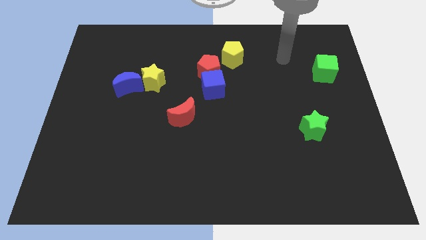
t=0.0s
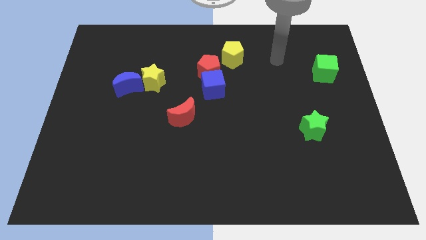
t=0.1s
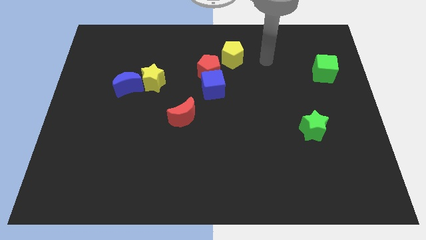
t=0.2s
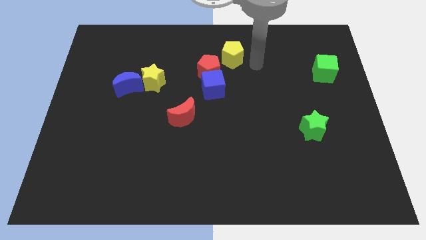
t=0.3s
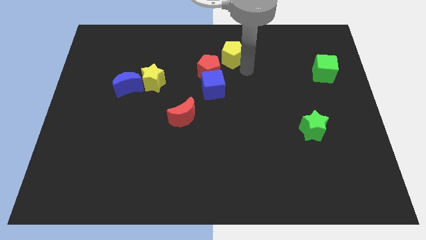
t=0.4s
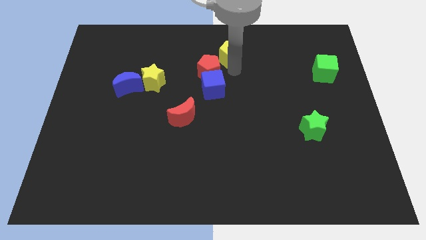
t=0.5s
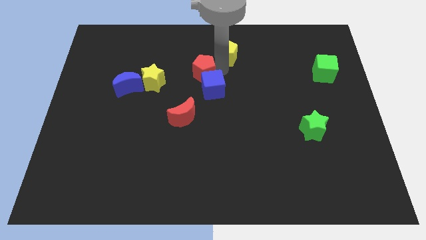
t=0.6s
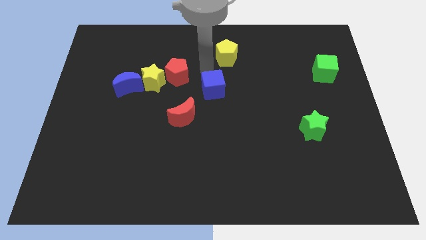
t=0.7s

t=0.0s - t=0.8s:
move the blue cube away from the red pentagon

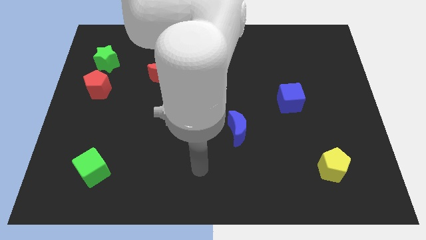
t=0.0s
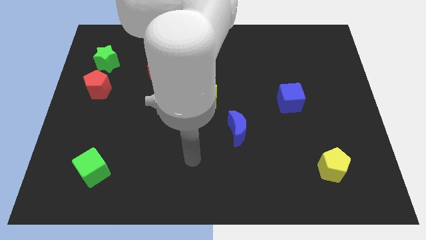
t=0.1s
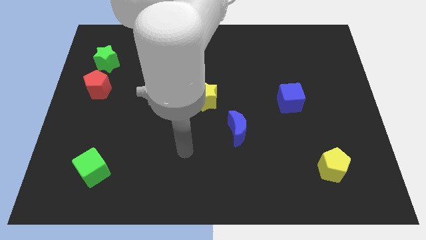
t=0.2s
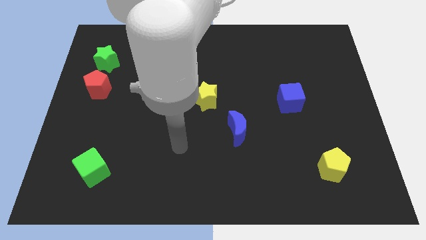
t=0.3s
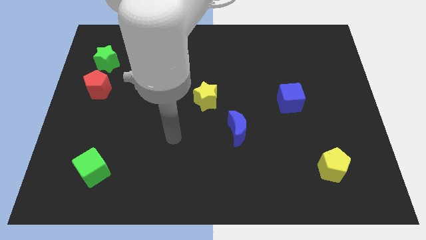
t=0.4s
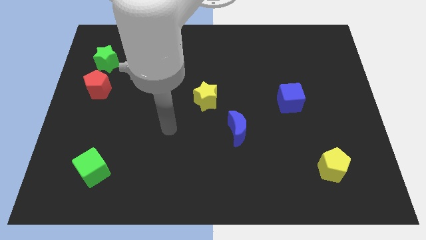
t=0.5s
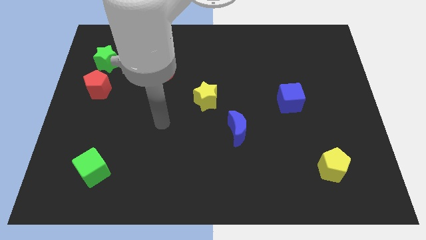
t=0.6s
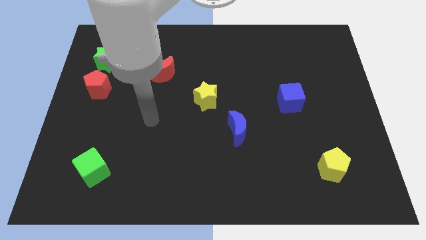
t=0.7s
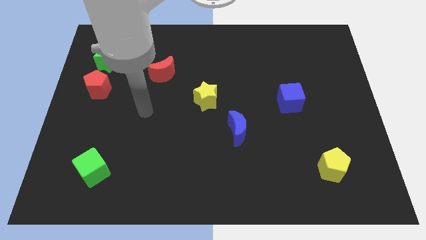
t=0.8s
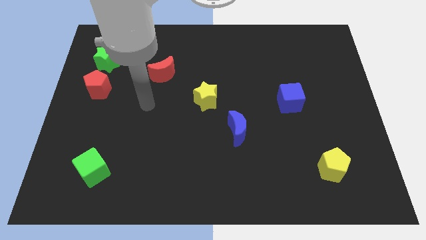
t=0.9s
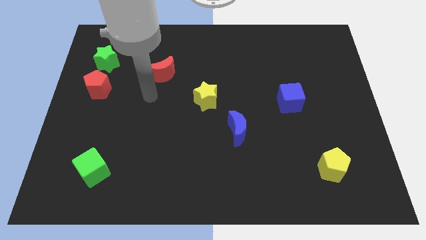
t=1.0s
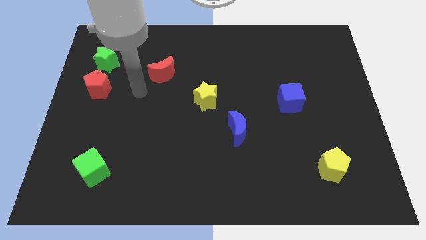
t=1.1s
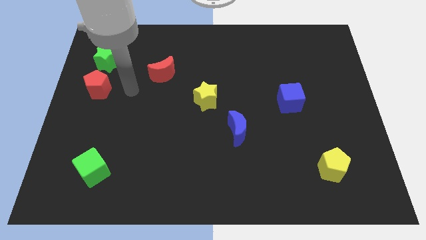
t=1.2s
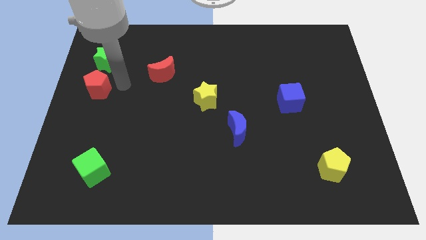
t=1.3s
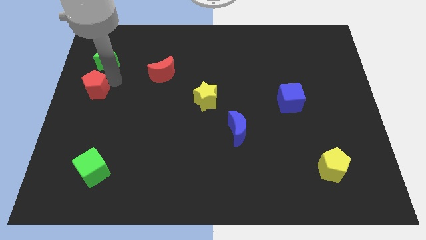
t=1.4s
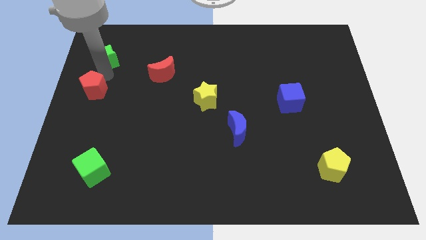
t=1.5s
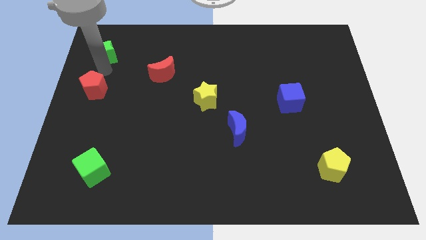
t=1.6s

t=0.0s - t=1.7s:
move the red pentagon away from the green star

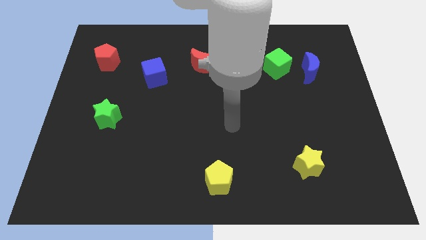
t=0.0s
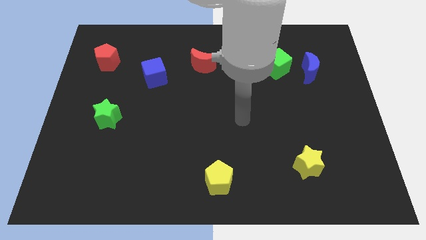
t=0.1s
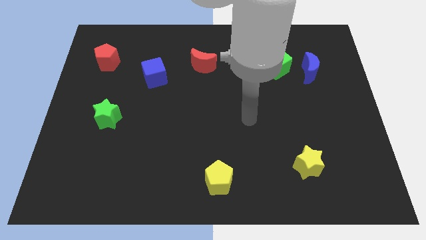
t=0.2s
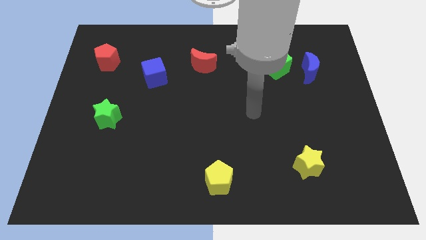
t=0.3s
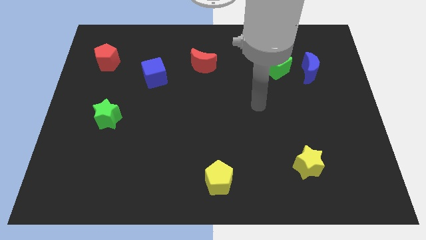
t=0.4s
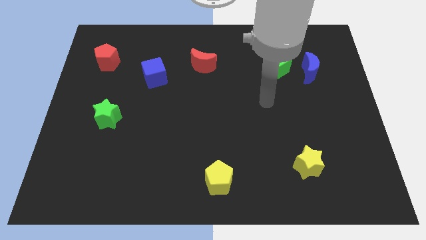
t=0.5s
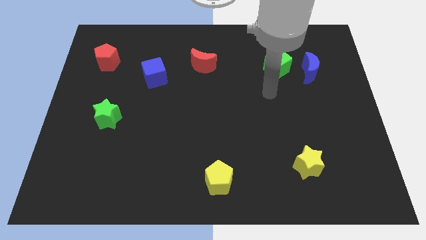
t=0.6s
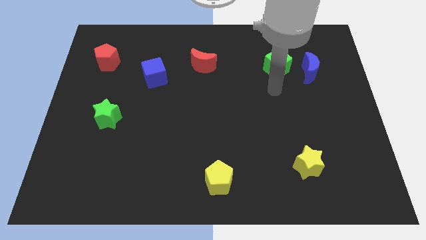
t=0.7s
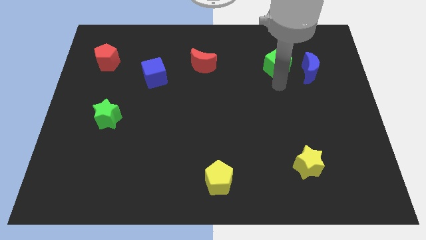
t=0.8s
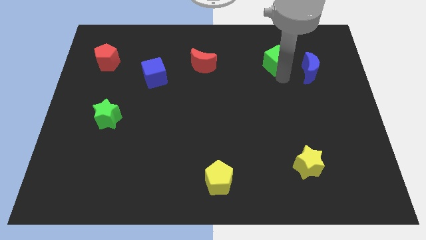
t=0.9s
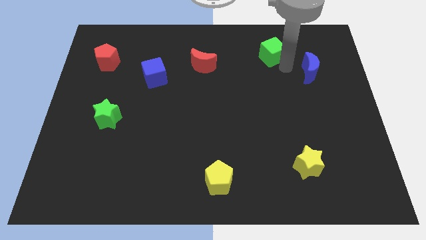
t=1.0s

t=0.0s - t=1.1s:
separate the blue moon from the green cube

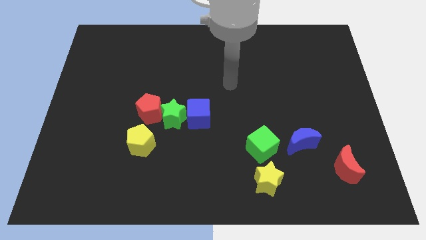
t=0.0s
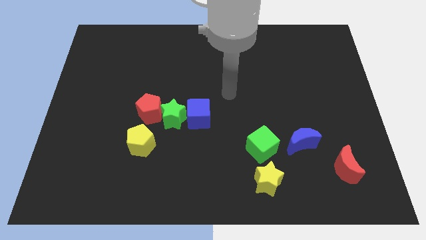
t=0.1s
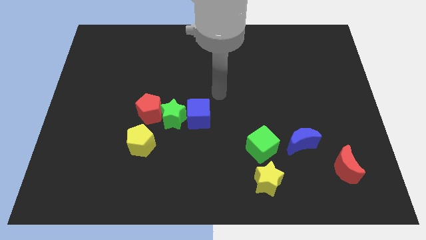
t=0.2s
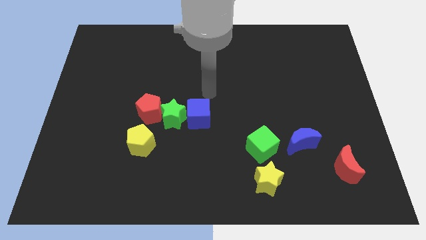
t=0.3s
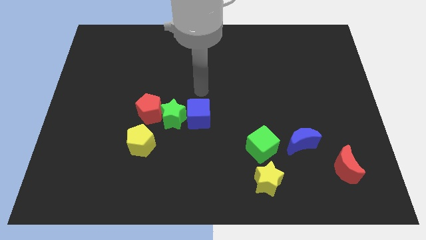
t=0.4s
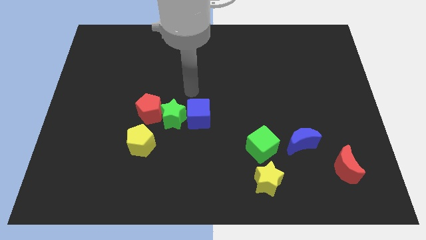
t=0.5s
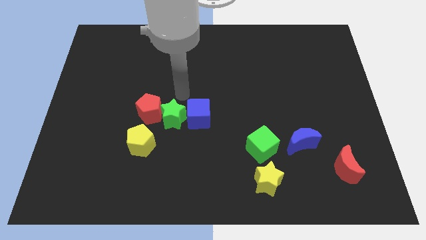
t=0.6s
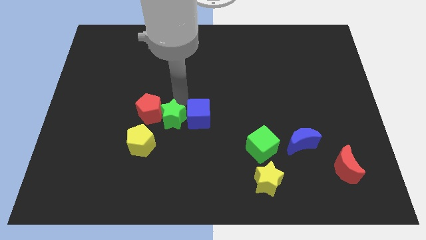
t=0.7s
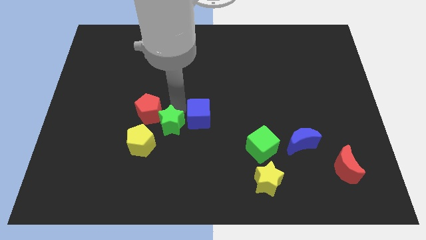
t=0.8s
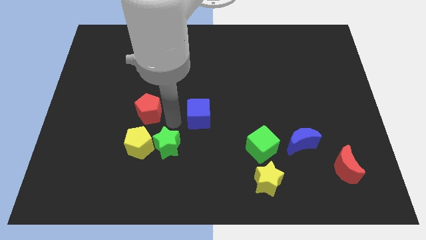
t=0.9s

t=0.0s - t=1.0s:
move the blue cube away from the green star

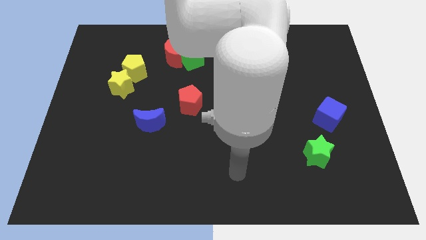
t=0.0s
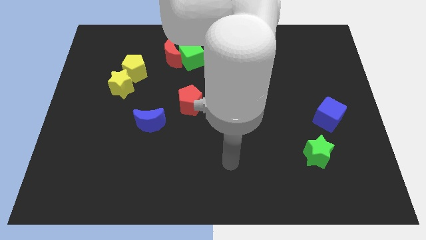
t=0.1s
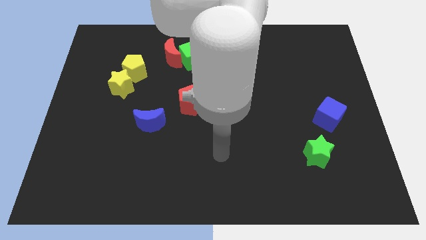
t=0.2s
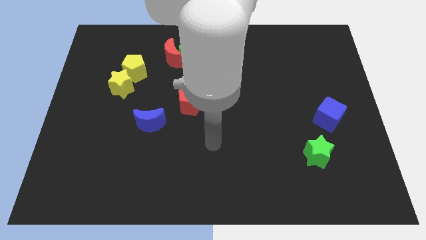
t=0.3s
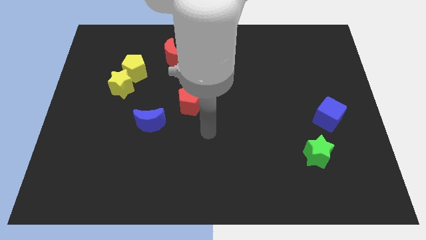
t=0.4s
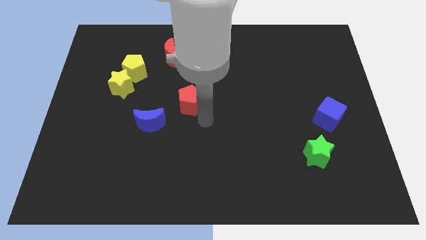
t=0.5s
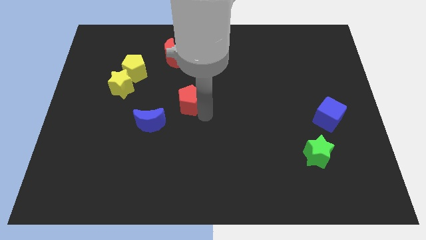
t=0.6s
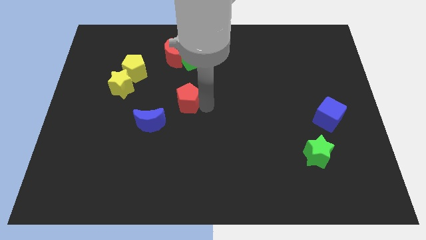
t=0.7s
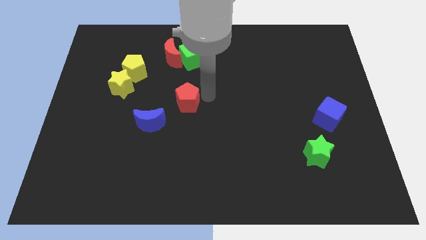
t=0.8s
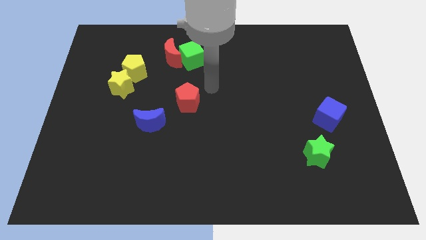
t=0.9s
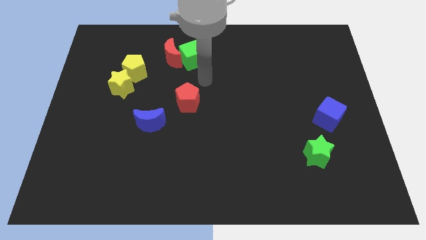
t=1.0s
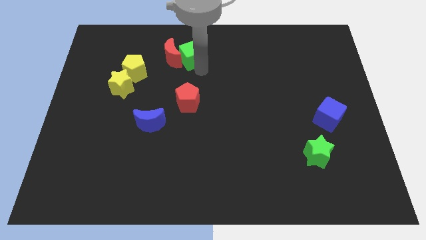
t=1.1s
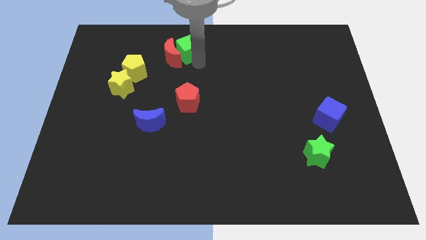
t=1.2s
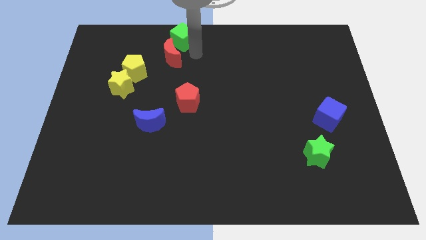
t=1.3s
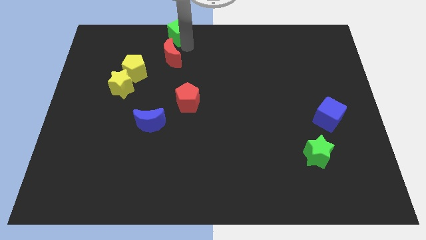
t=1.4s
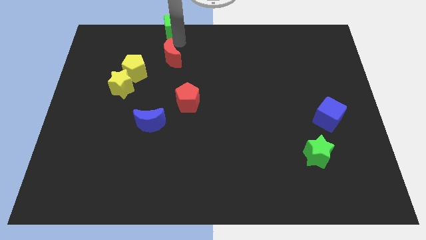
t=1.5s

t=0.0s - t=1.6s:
pull the red moon apart from the green cube

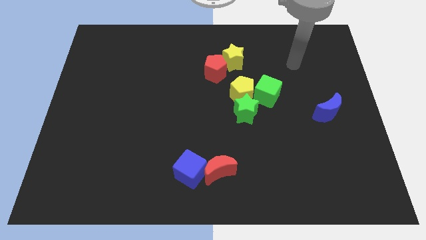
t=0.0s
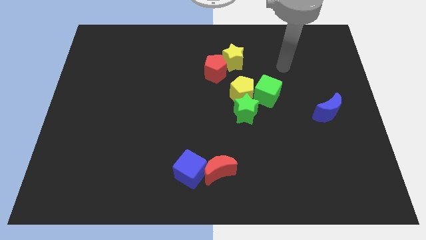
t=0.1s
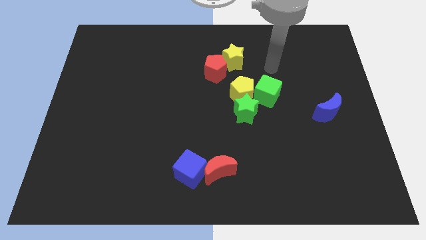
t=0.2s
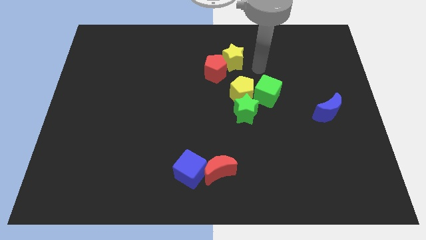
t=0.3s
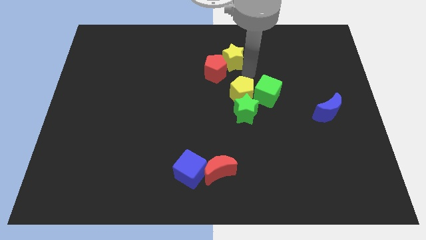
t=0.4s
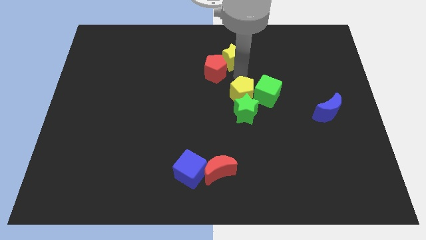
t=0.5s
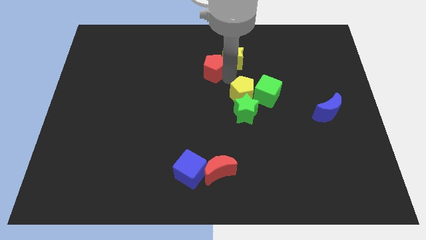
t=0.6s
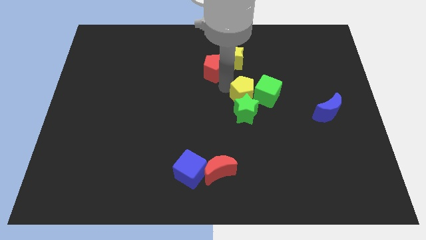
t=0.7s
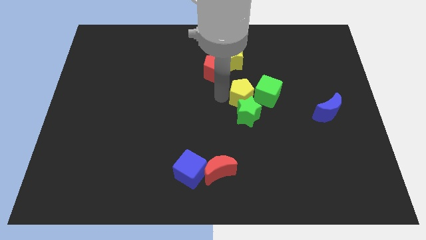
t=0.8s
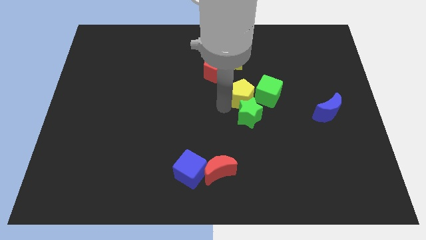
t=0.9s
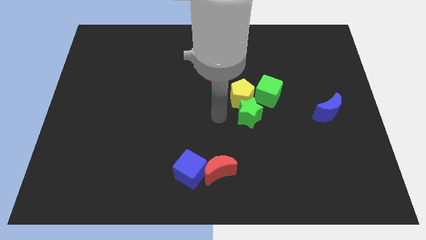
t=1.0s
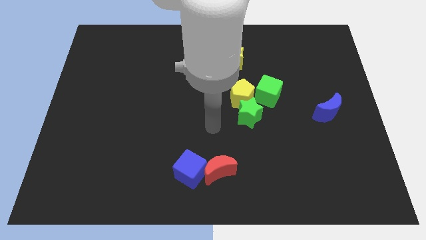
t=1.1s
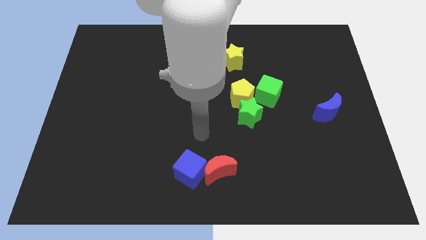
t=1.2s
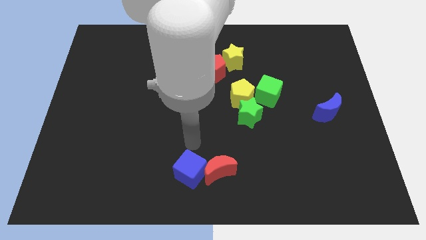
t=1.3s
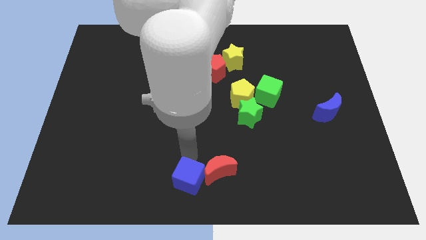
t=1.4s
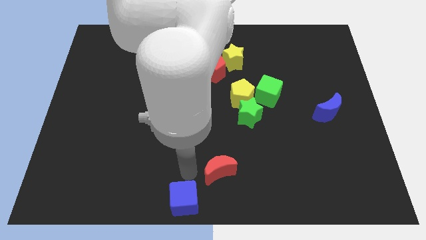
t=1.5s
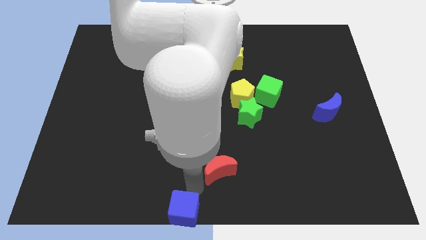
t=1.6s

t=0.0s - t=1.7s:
pull the red moon apart from the blue cube

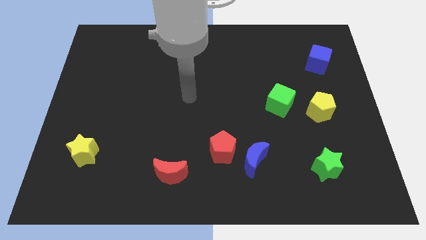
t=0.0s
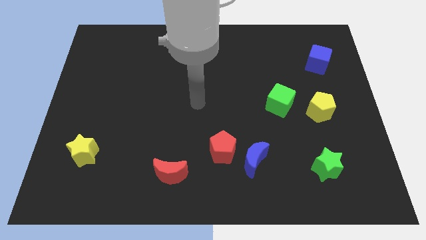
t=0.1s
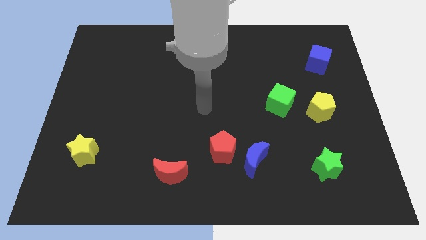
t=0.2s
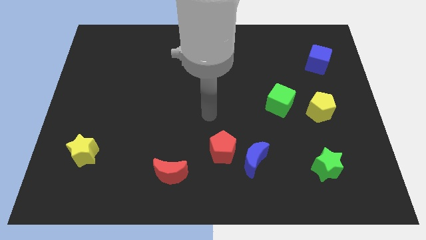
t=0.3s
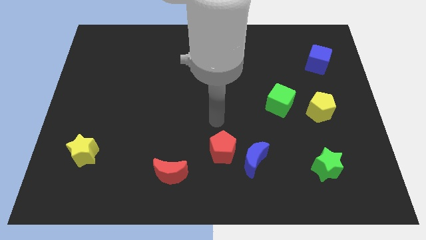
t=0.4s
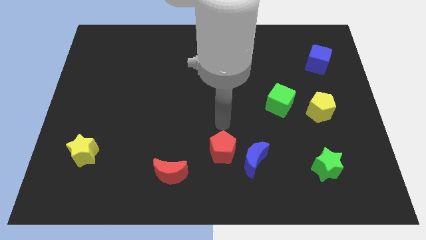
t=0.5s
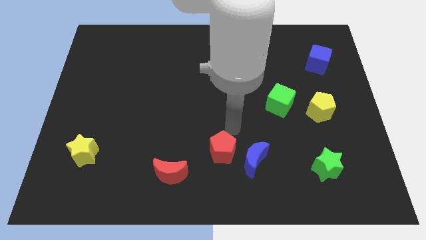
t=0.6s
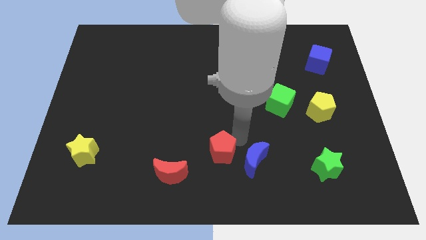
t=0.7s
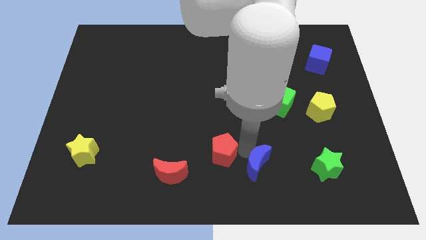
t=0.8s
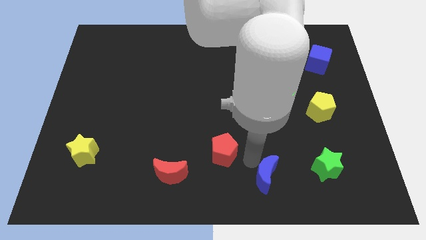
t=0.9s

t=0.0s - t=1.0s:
pull the red pentagon apart from the blue moon

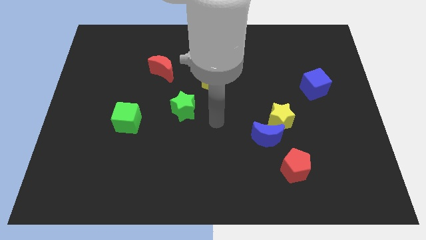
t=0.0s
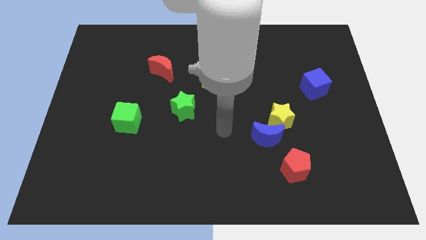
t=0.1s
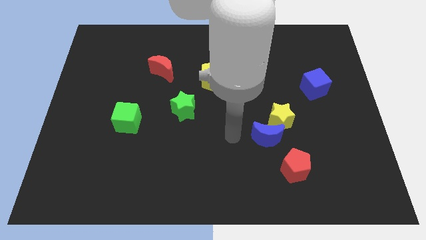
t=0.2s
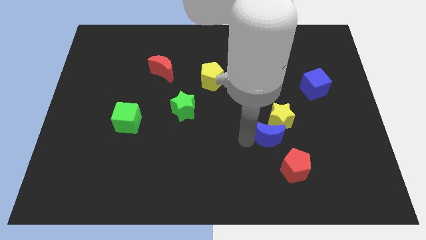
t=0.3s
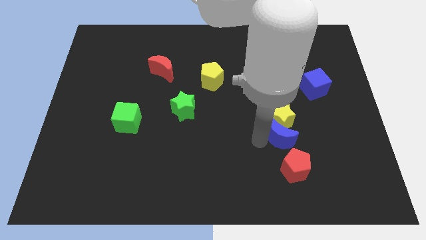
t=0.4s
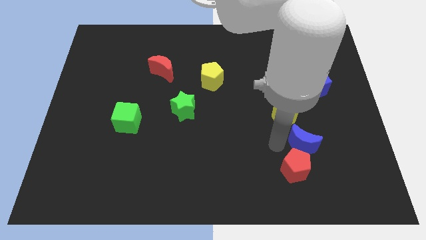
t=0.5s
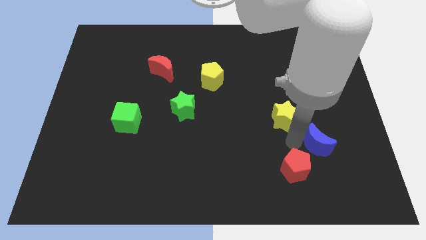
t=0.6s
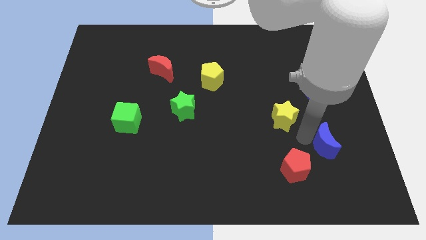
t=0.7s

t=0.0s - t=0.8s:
pull the yellow star apart from the blue moon
